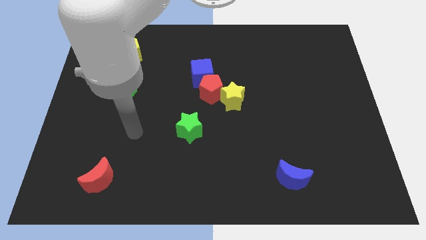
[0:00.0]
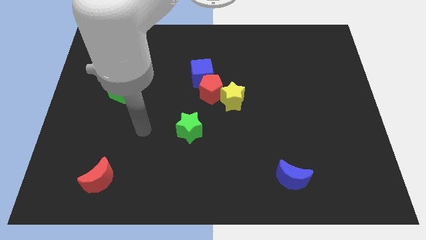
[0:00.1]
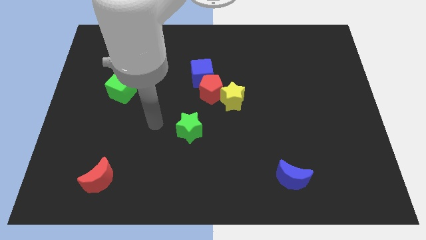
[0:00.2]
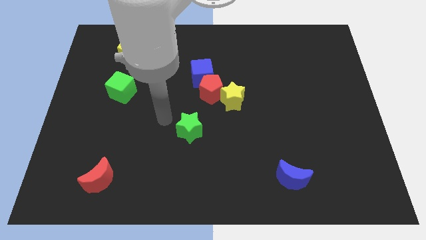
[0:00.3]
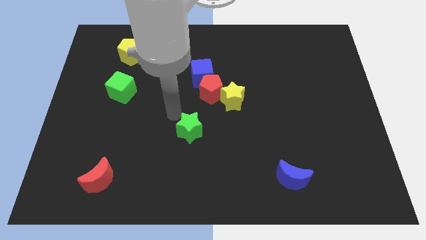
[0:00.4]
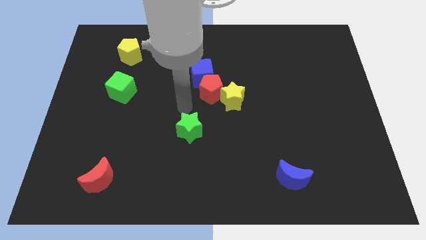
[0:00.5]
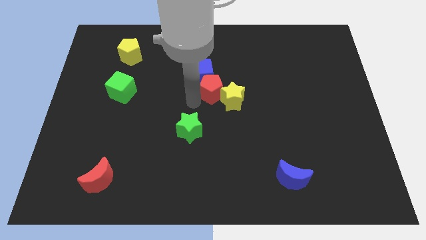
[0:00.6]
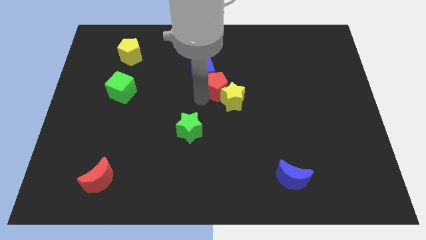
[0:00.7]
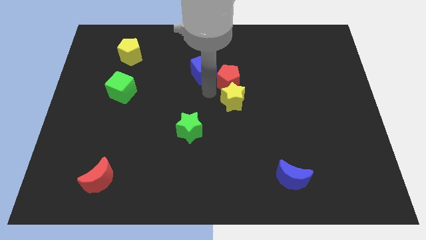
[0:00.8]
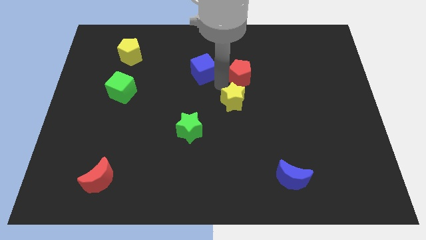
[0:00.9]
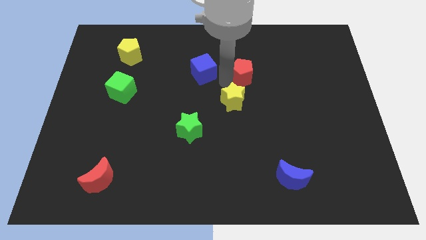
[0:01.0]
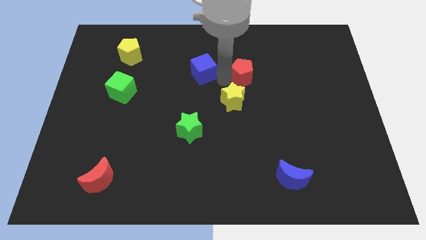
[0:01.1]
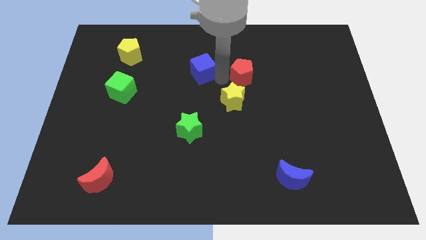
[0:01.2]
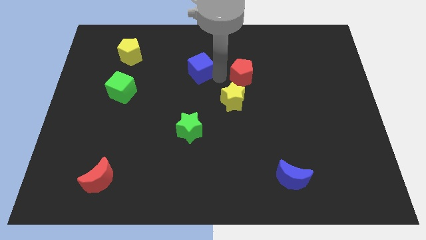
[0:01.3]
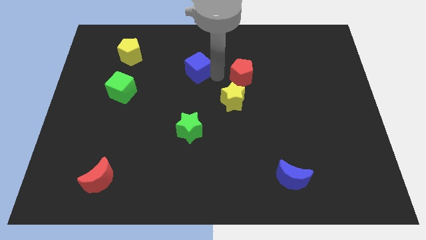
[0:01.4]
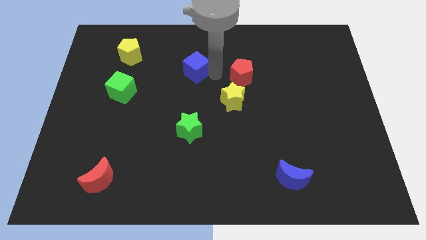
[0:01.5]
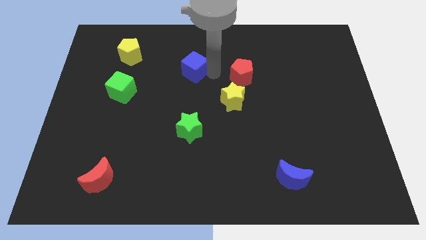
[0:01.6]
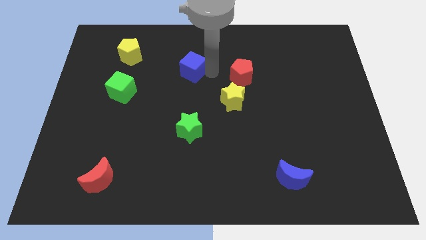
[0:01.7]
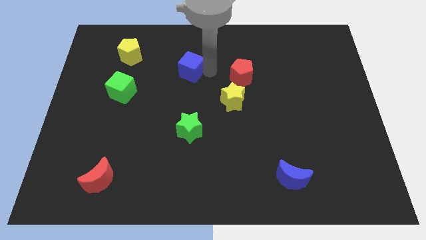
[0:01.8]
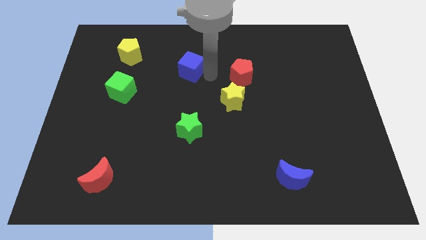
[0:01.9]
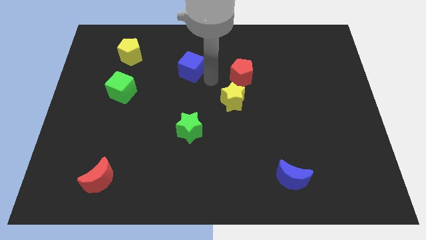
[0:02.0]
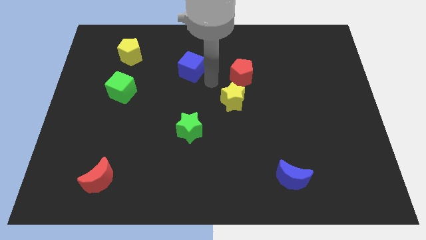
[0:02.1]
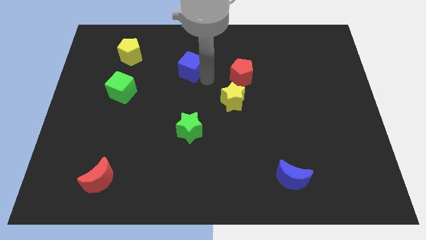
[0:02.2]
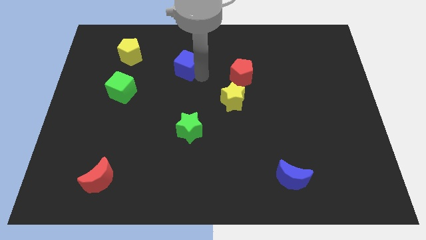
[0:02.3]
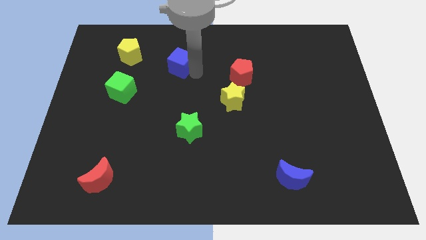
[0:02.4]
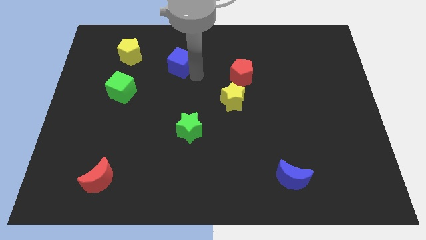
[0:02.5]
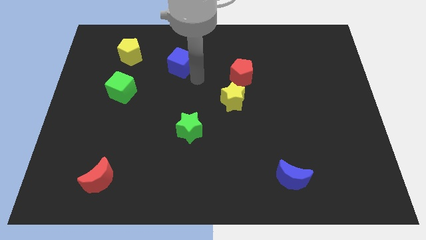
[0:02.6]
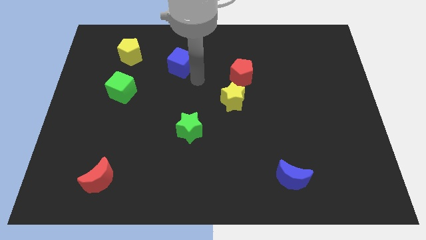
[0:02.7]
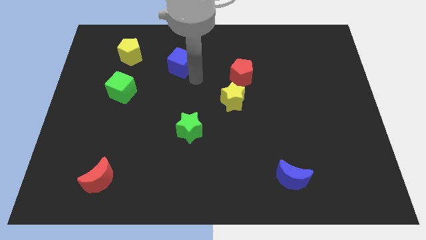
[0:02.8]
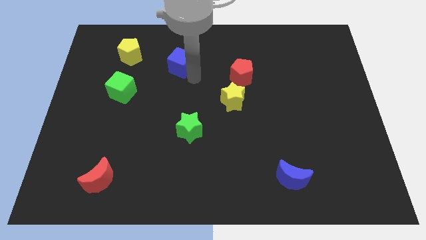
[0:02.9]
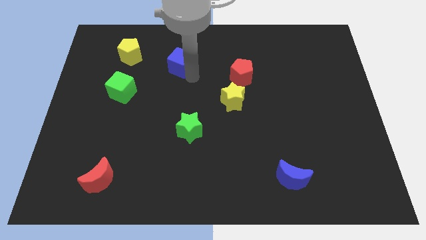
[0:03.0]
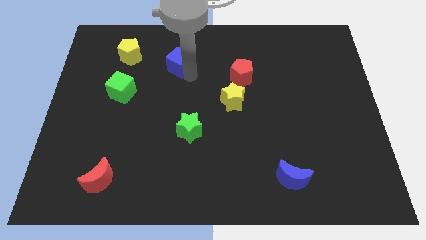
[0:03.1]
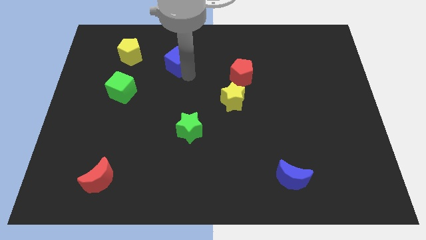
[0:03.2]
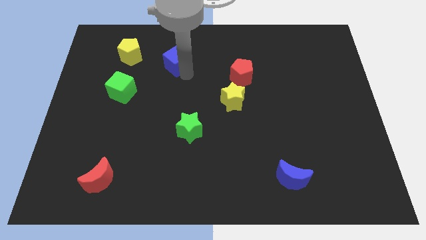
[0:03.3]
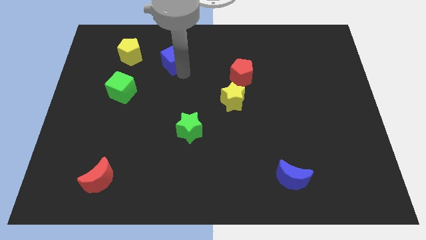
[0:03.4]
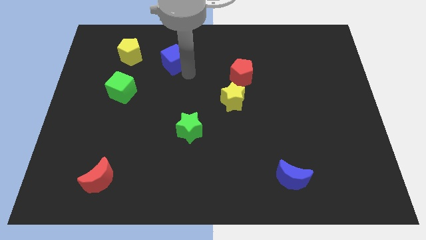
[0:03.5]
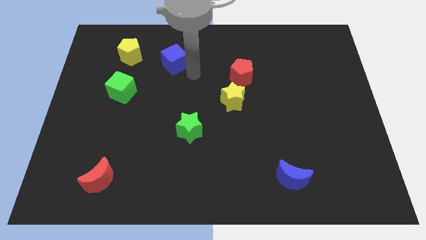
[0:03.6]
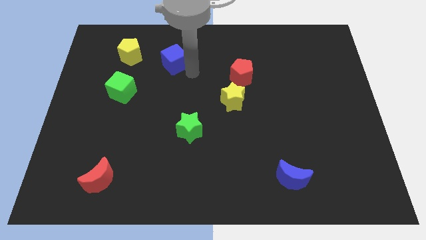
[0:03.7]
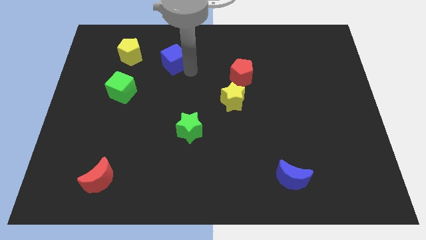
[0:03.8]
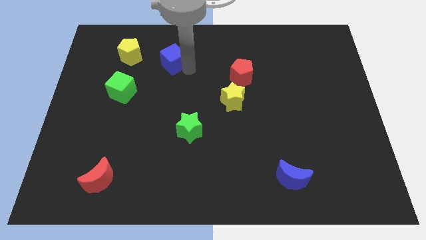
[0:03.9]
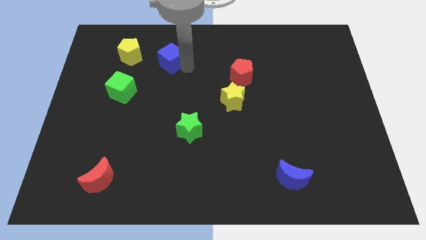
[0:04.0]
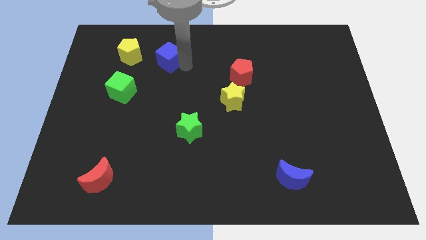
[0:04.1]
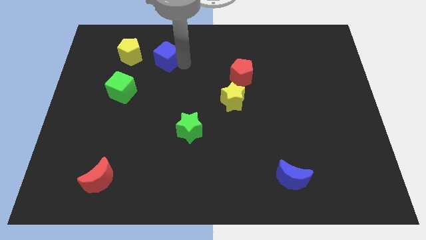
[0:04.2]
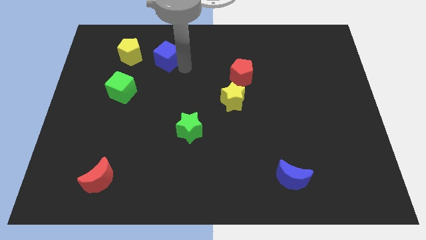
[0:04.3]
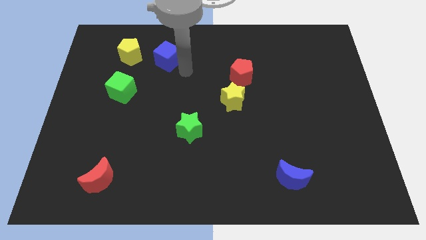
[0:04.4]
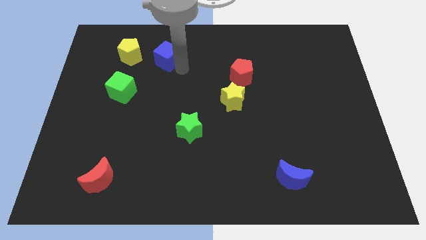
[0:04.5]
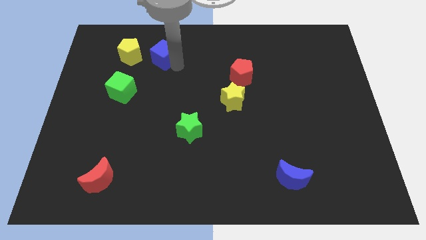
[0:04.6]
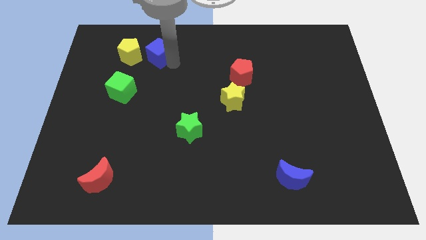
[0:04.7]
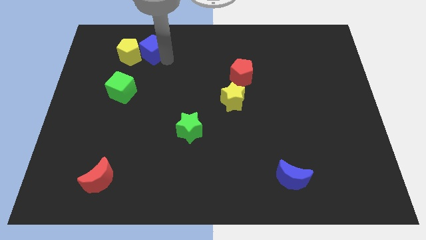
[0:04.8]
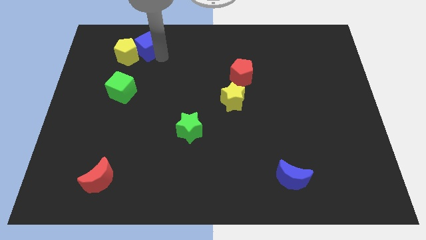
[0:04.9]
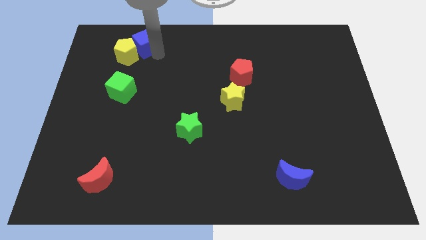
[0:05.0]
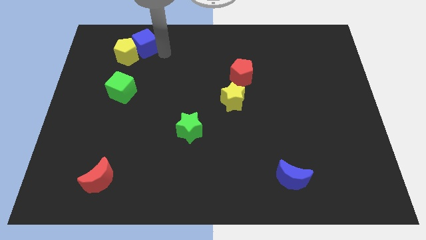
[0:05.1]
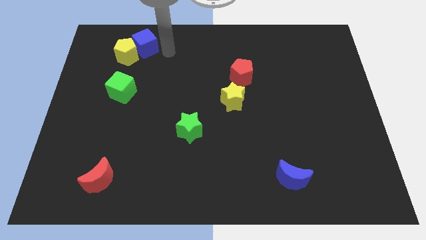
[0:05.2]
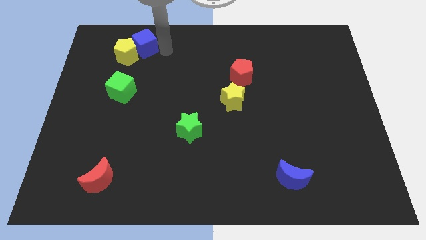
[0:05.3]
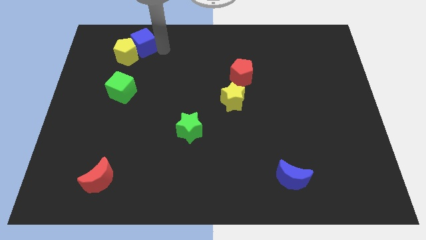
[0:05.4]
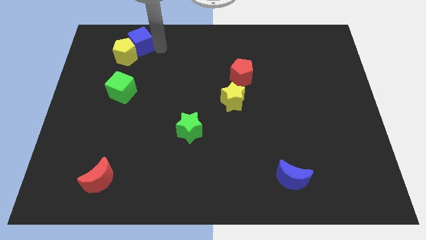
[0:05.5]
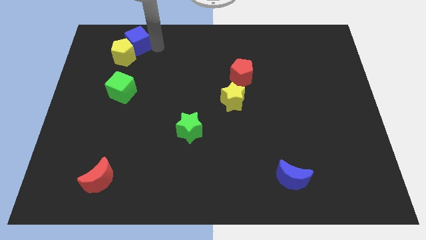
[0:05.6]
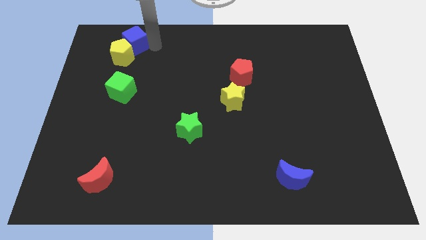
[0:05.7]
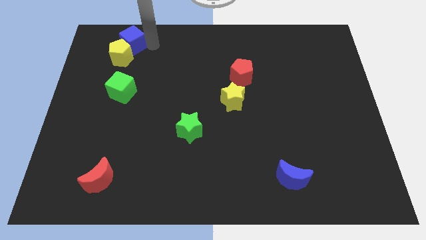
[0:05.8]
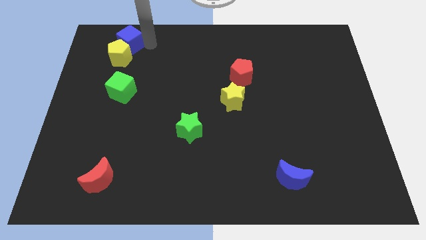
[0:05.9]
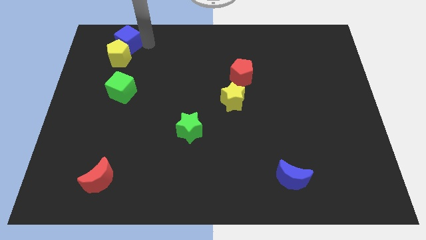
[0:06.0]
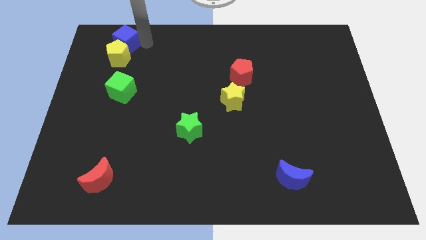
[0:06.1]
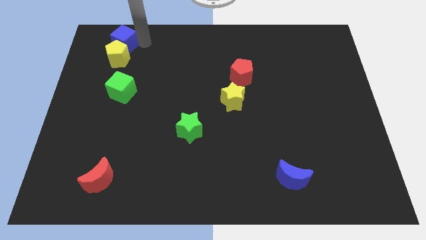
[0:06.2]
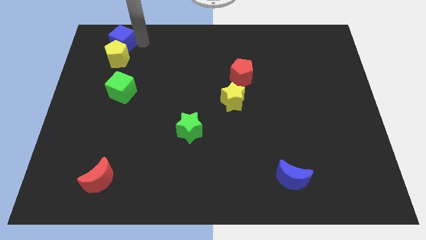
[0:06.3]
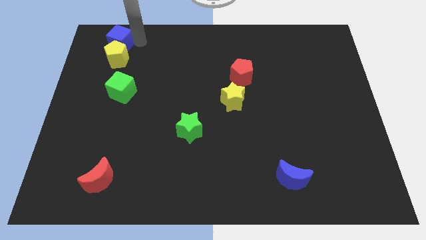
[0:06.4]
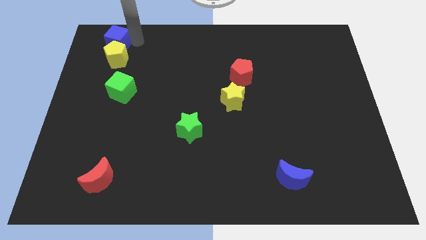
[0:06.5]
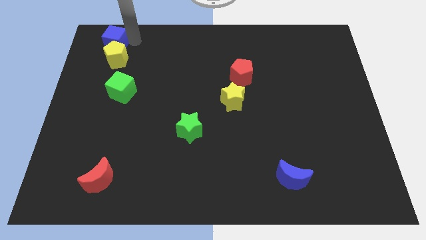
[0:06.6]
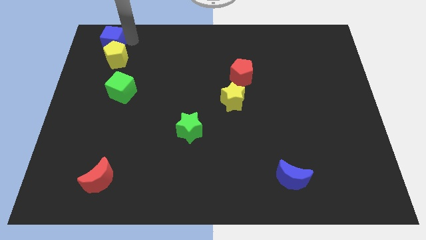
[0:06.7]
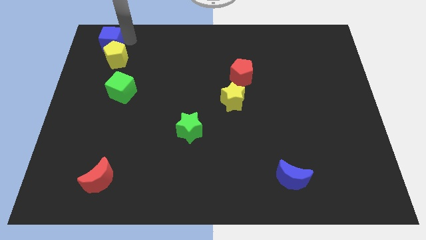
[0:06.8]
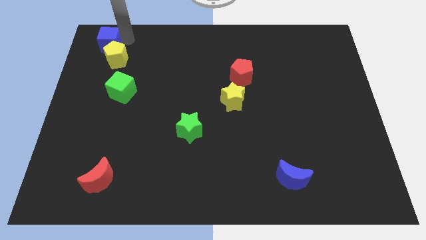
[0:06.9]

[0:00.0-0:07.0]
put the blue cube to the top left of the board
